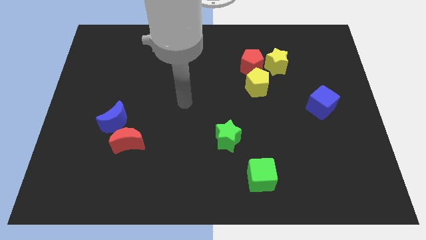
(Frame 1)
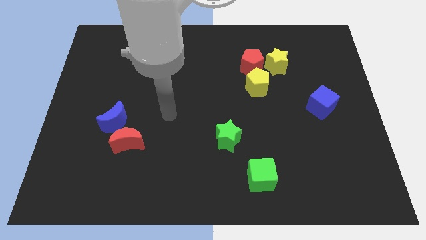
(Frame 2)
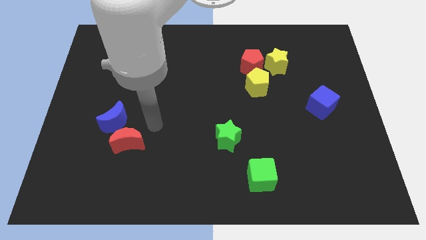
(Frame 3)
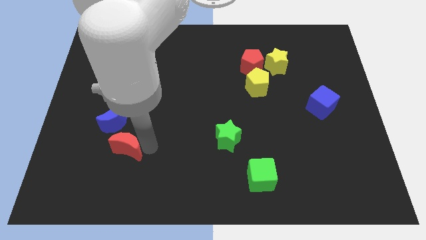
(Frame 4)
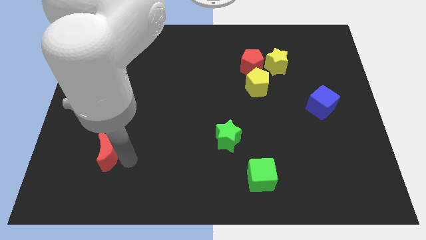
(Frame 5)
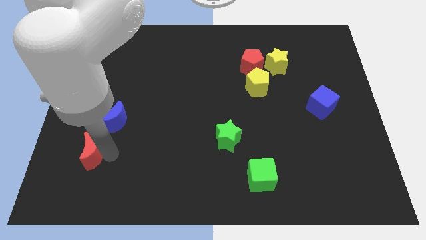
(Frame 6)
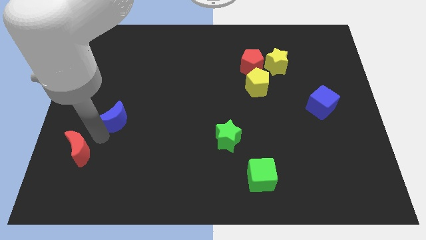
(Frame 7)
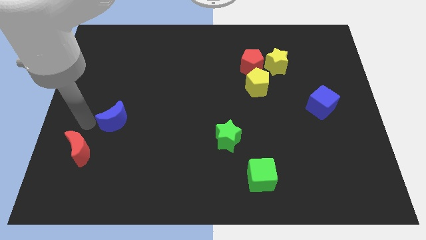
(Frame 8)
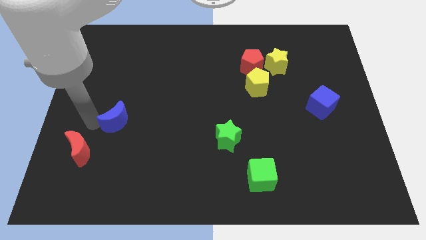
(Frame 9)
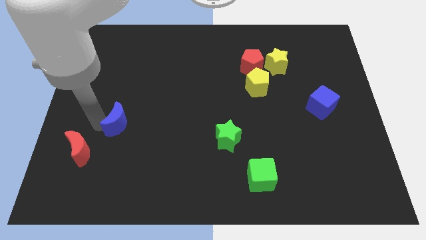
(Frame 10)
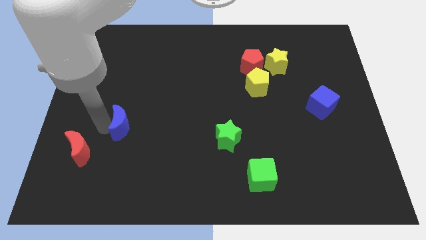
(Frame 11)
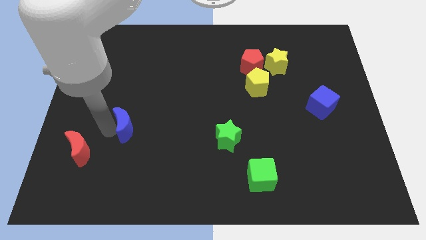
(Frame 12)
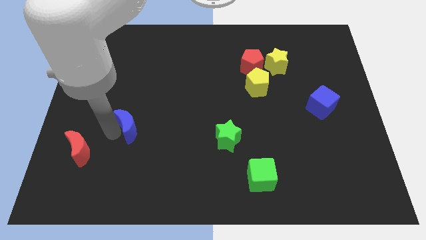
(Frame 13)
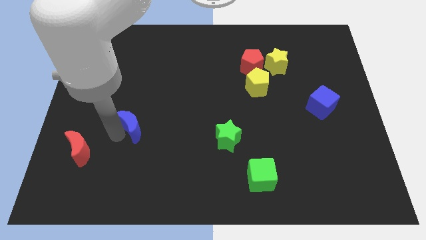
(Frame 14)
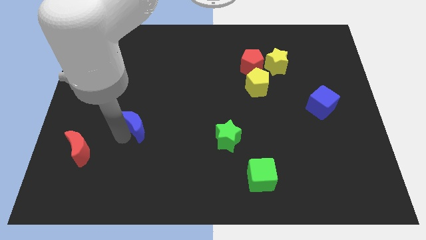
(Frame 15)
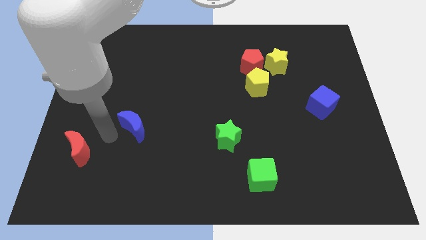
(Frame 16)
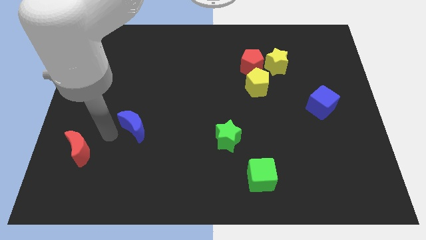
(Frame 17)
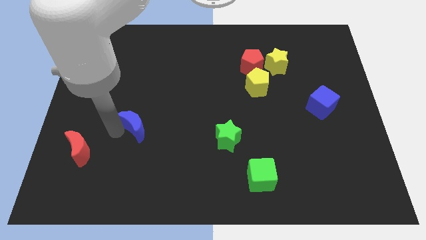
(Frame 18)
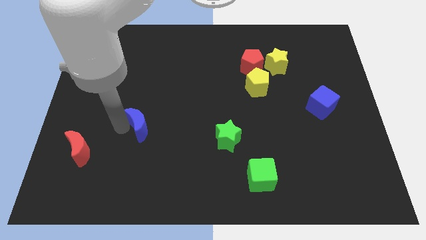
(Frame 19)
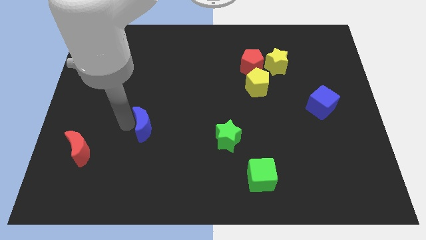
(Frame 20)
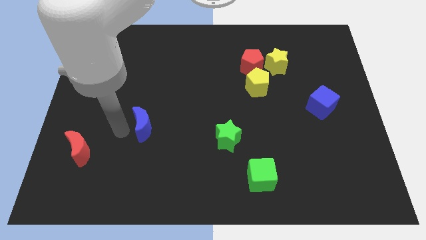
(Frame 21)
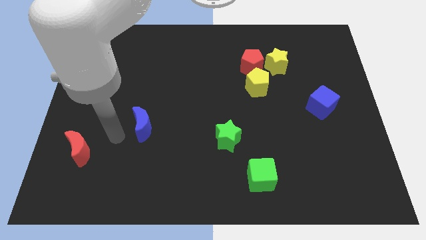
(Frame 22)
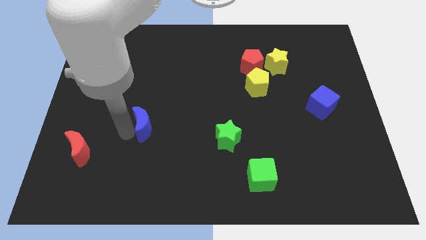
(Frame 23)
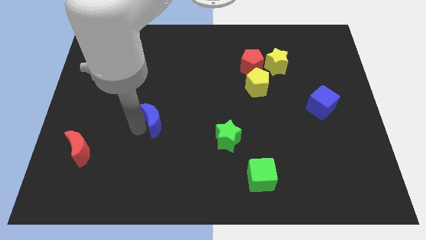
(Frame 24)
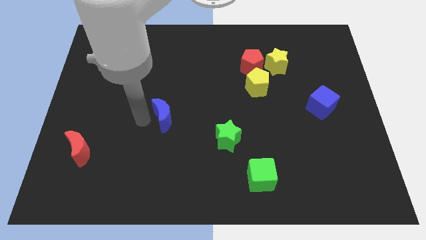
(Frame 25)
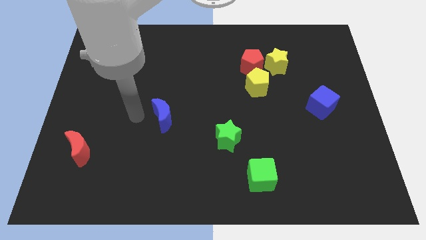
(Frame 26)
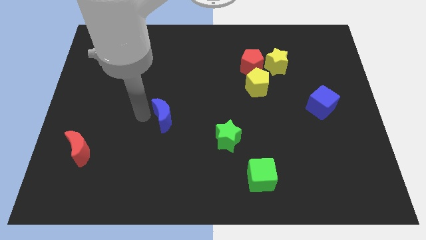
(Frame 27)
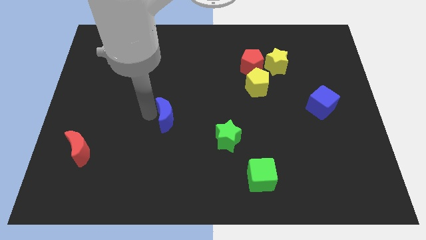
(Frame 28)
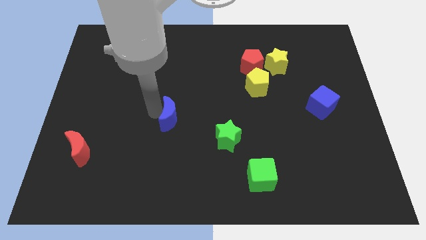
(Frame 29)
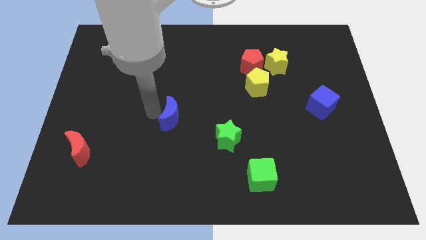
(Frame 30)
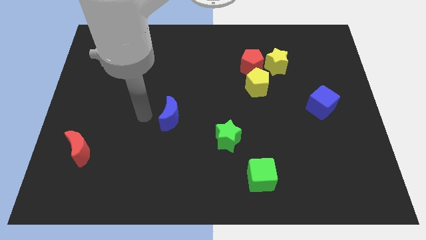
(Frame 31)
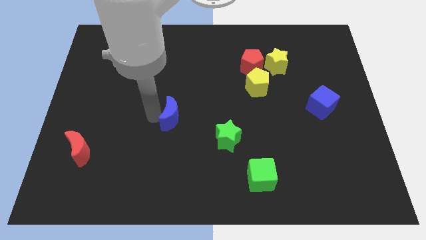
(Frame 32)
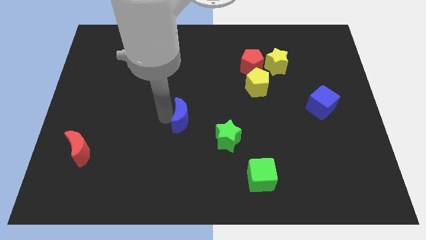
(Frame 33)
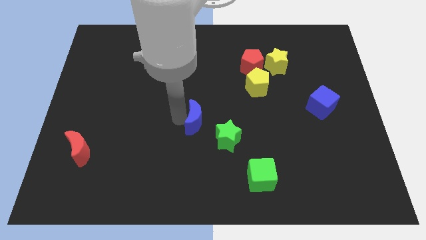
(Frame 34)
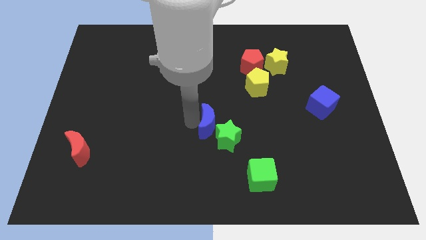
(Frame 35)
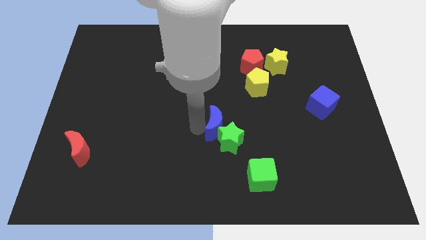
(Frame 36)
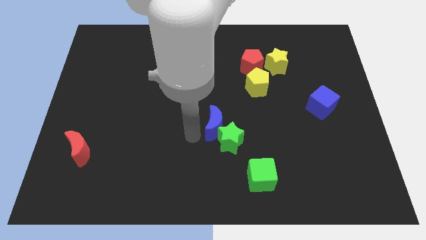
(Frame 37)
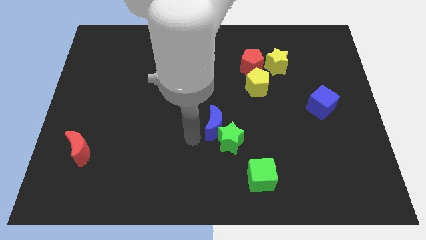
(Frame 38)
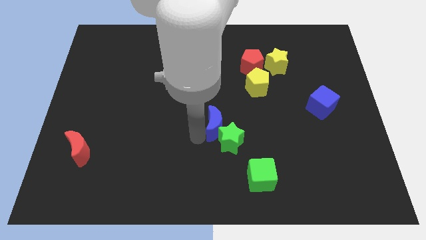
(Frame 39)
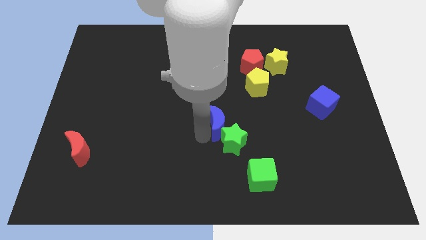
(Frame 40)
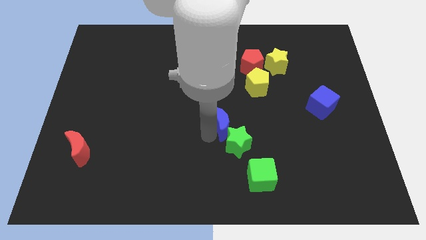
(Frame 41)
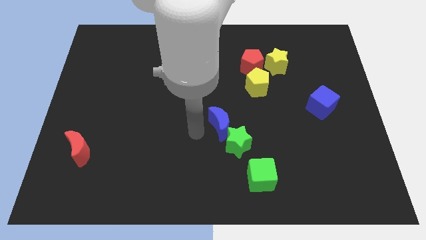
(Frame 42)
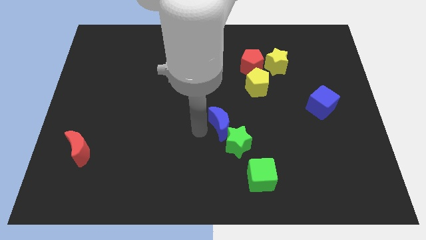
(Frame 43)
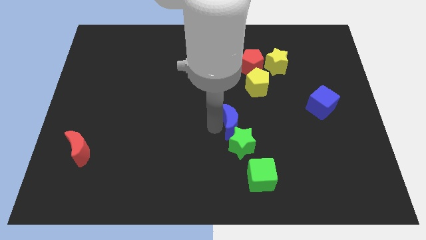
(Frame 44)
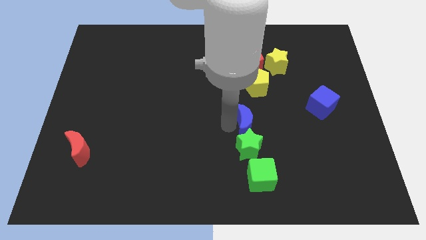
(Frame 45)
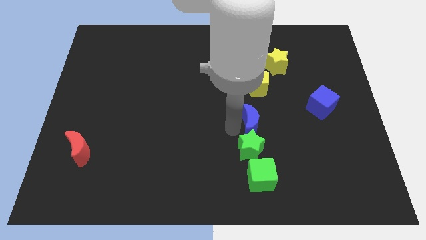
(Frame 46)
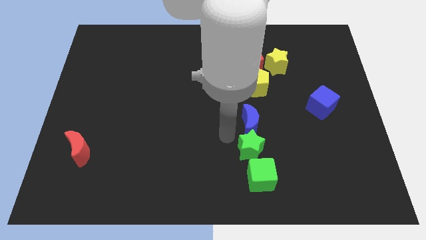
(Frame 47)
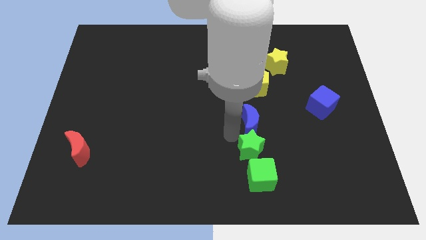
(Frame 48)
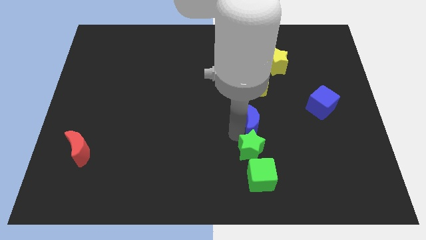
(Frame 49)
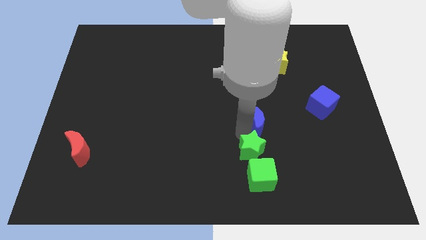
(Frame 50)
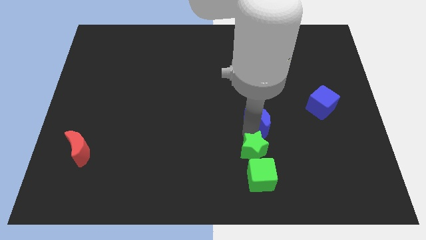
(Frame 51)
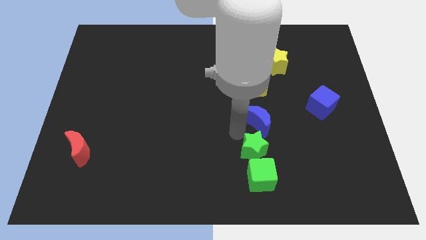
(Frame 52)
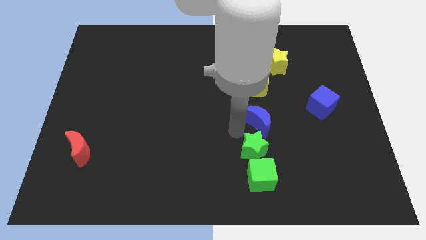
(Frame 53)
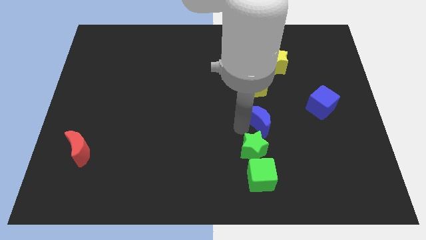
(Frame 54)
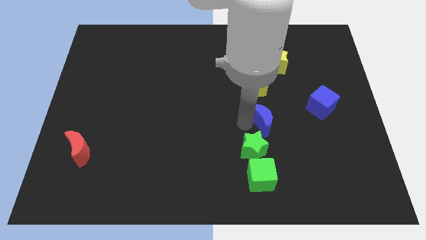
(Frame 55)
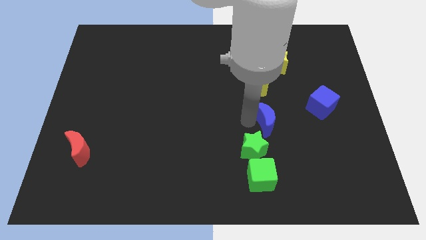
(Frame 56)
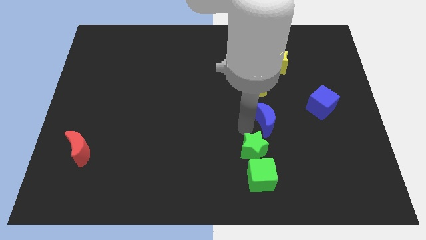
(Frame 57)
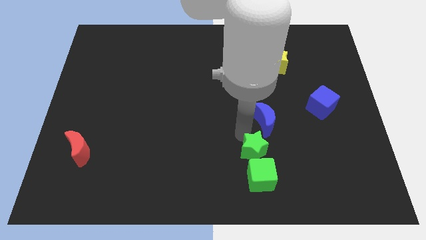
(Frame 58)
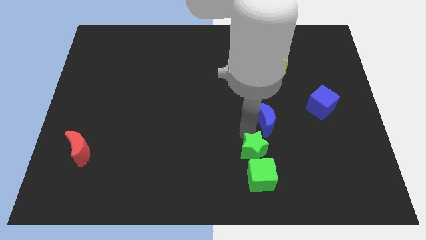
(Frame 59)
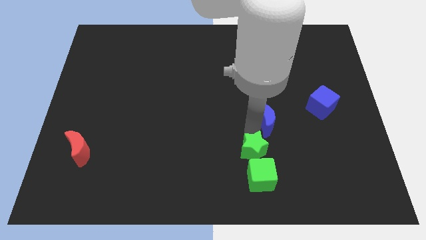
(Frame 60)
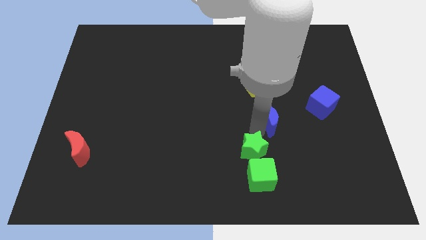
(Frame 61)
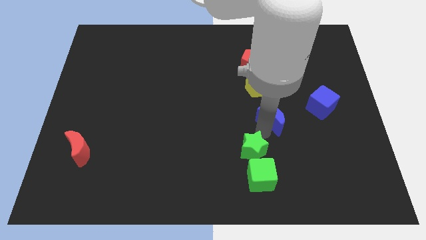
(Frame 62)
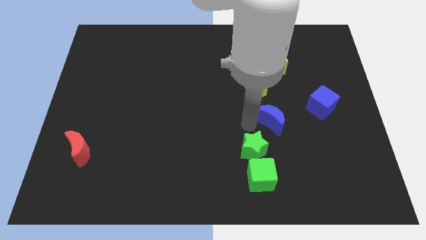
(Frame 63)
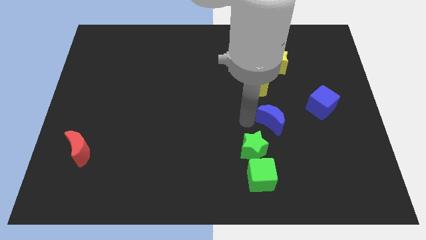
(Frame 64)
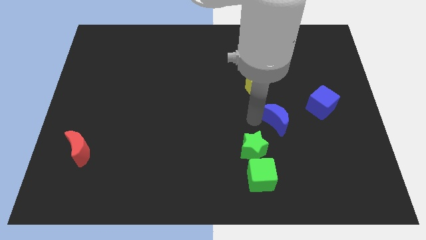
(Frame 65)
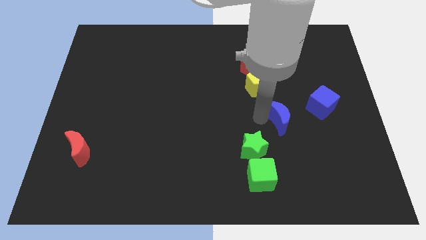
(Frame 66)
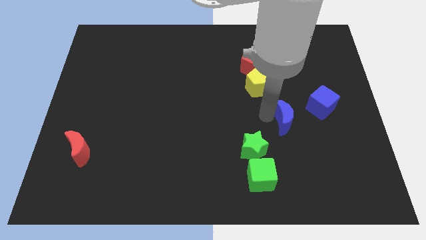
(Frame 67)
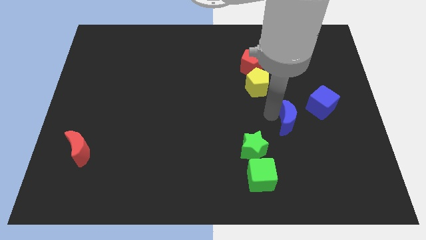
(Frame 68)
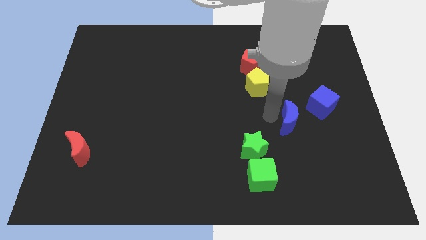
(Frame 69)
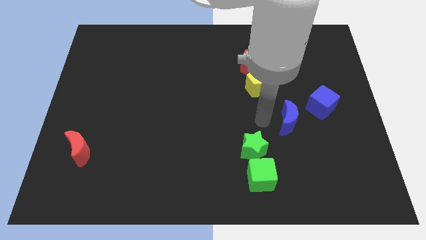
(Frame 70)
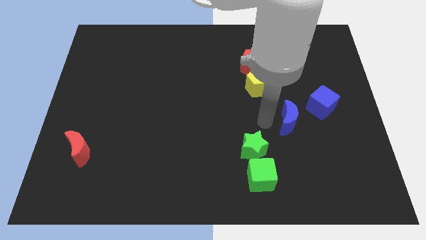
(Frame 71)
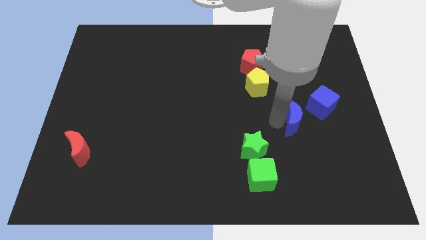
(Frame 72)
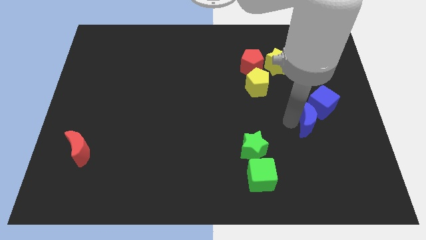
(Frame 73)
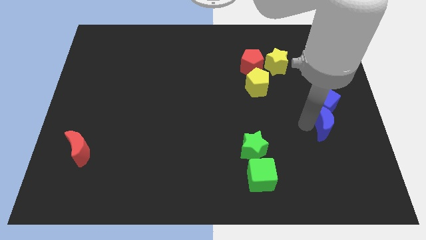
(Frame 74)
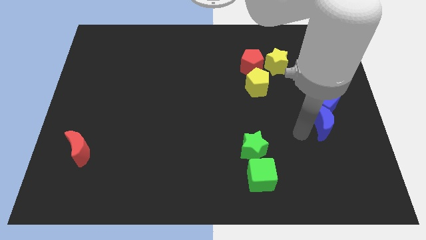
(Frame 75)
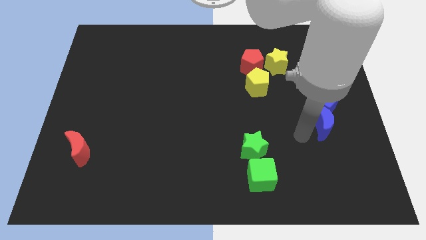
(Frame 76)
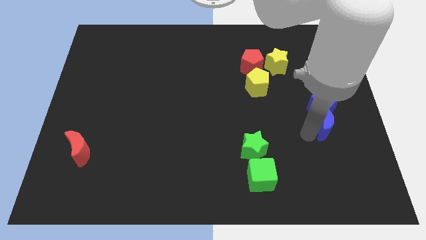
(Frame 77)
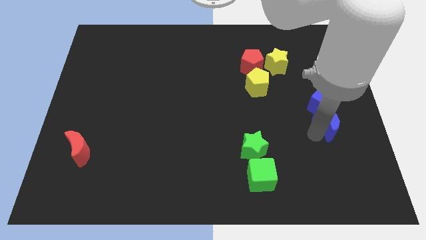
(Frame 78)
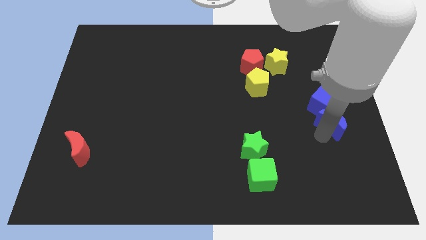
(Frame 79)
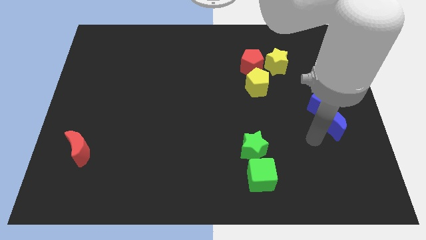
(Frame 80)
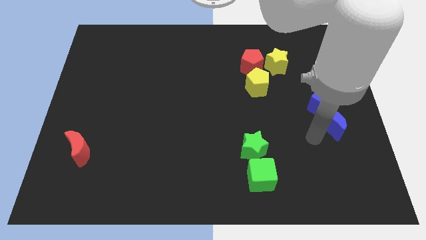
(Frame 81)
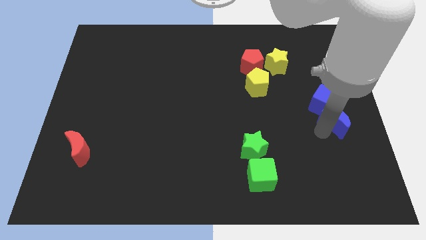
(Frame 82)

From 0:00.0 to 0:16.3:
push the blue moon to the right side
